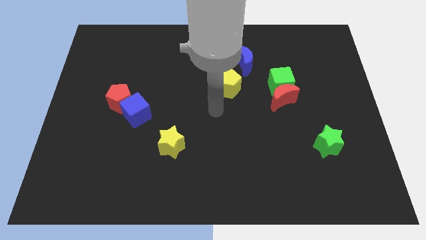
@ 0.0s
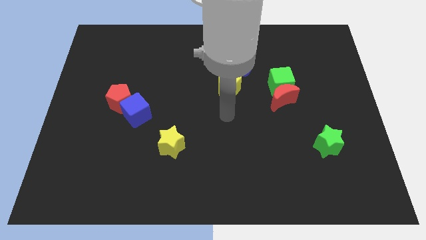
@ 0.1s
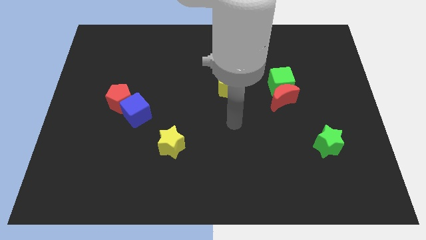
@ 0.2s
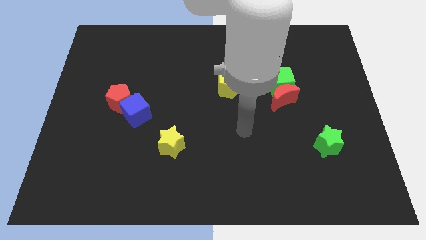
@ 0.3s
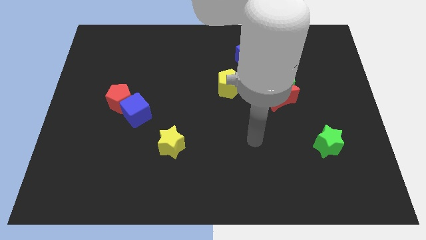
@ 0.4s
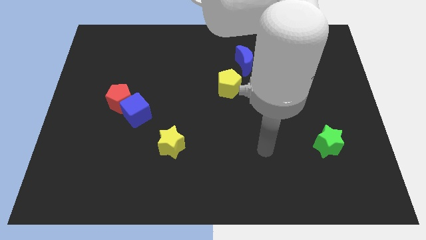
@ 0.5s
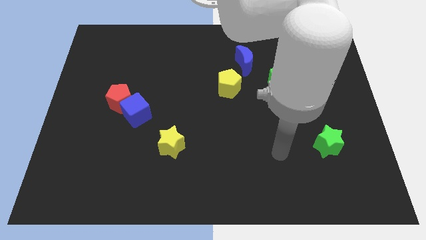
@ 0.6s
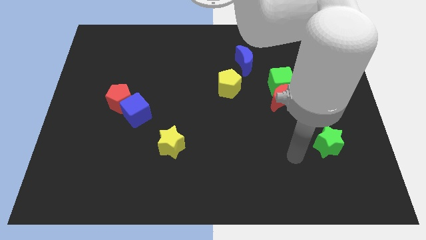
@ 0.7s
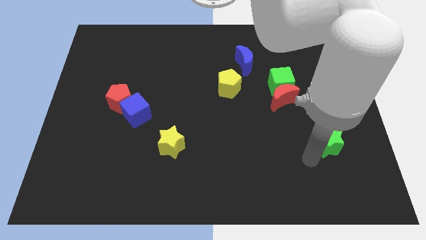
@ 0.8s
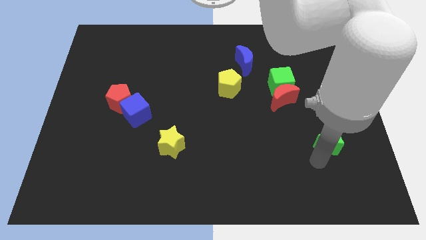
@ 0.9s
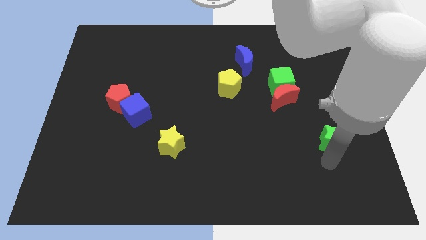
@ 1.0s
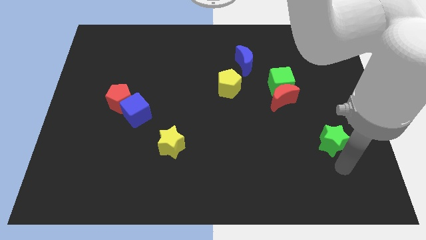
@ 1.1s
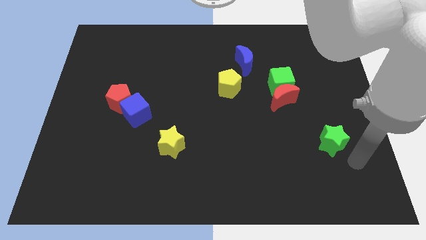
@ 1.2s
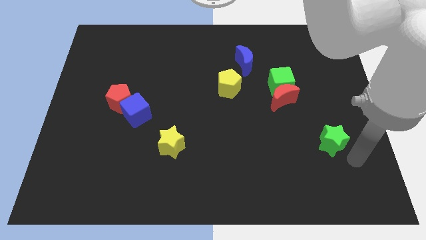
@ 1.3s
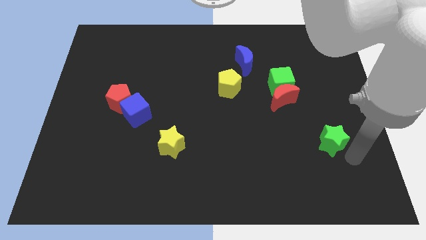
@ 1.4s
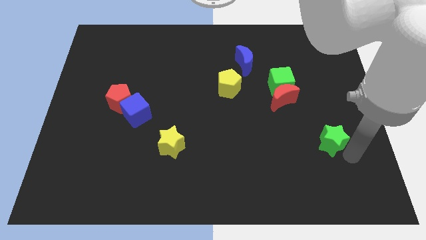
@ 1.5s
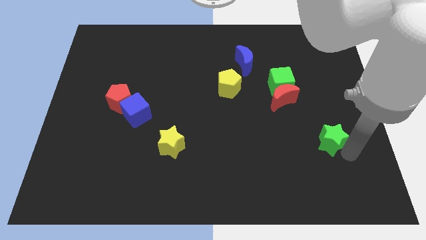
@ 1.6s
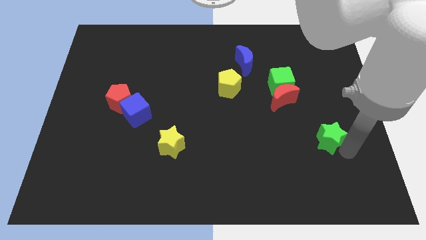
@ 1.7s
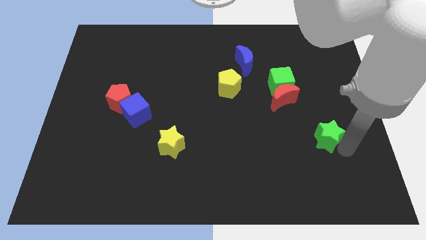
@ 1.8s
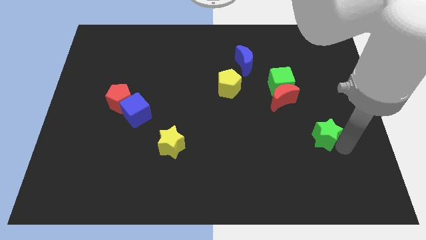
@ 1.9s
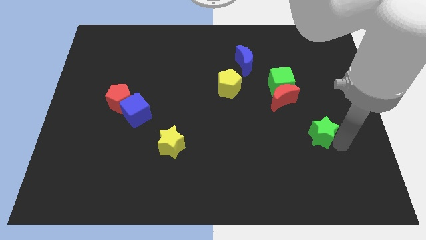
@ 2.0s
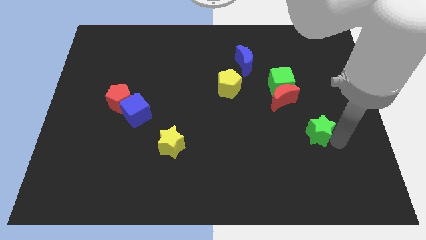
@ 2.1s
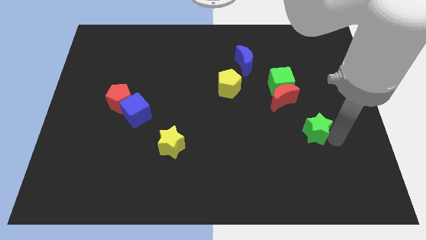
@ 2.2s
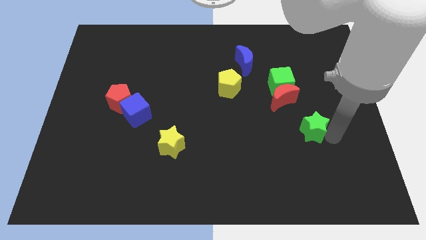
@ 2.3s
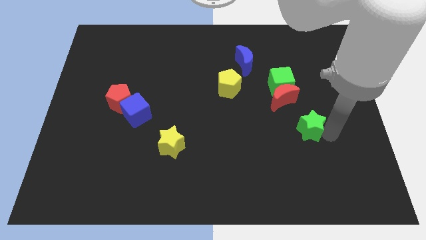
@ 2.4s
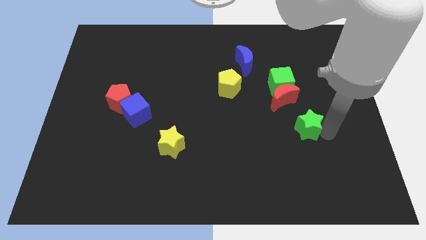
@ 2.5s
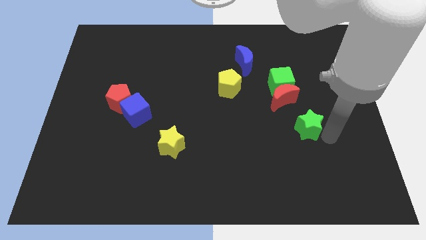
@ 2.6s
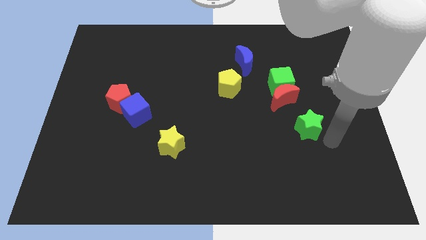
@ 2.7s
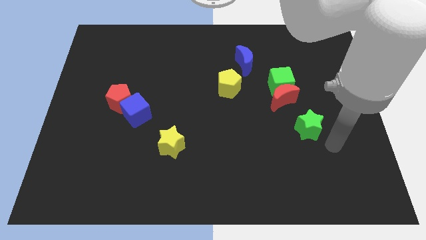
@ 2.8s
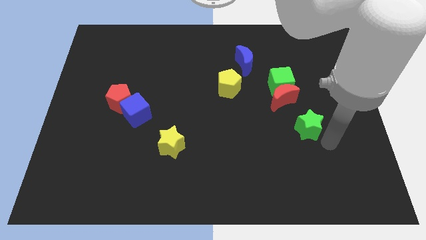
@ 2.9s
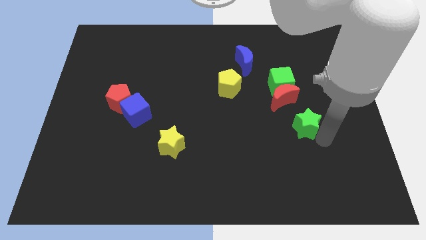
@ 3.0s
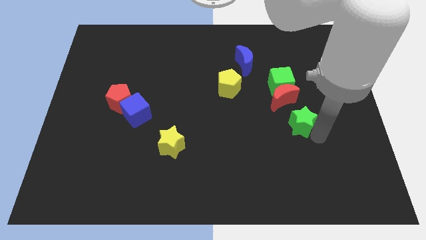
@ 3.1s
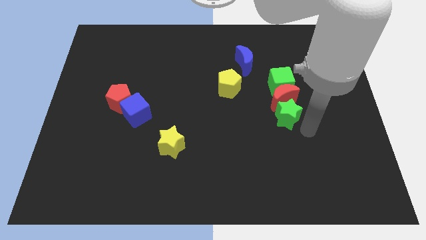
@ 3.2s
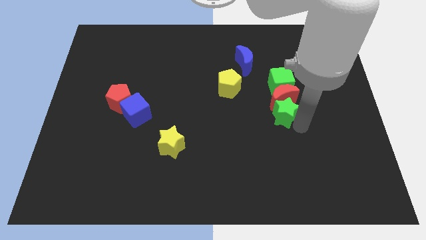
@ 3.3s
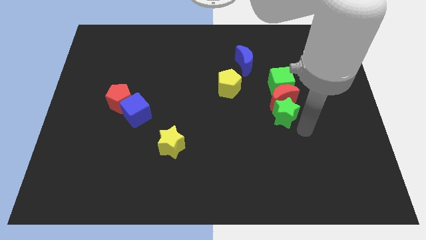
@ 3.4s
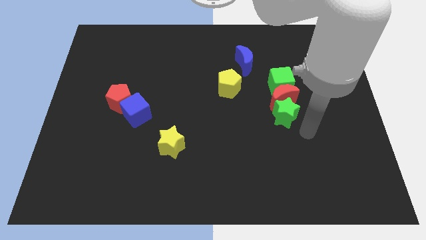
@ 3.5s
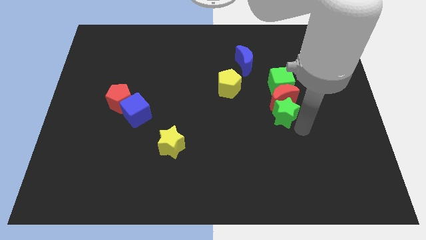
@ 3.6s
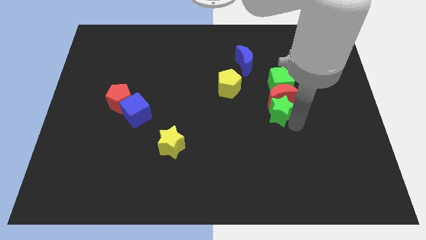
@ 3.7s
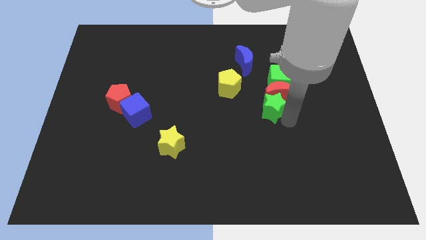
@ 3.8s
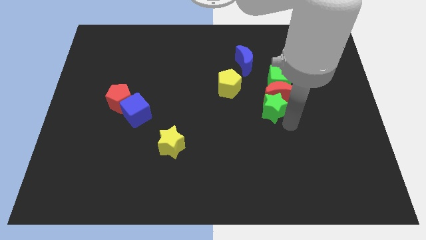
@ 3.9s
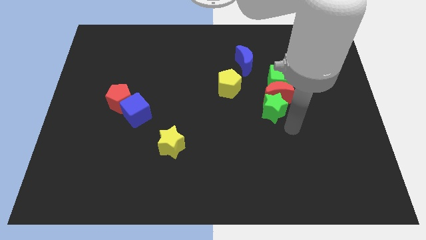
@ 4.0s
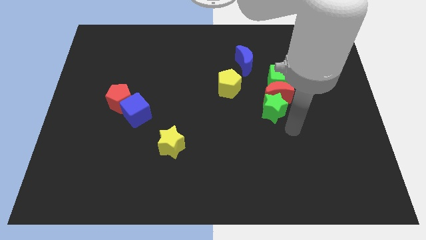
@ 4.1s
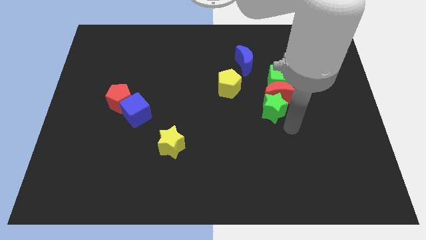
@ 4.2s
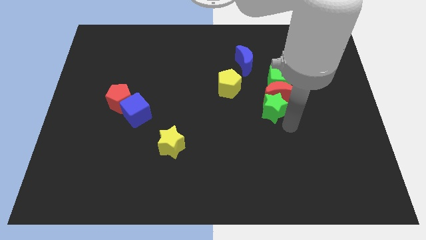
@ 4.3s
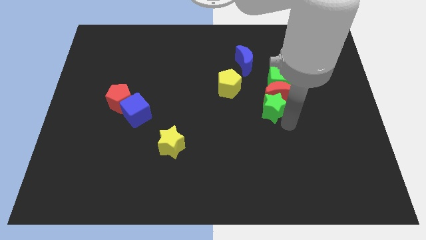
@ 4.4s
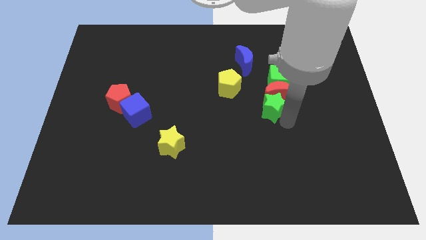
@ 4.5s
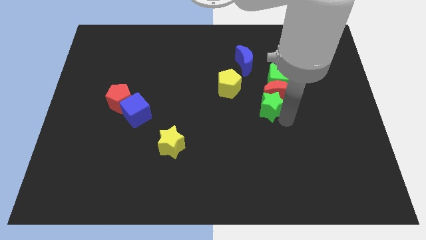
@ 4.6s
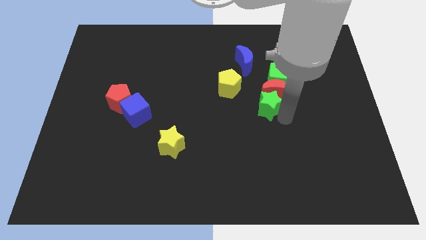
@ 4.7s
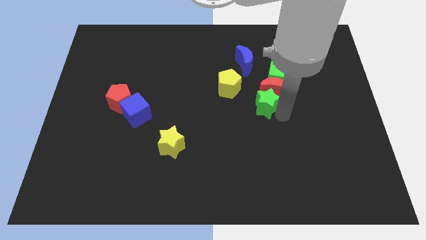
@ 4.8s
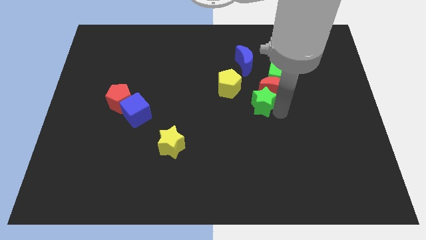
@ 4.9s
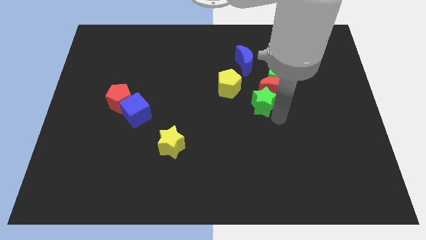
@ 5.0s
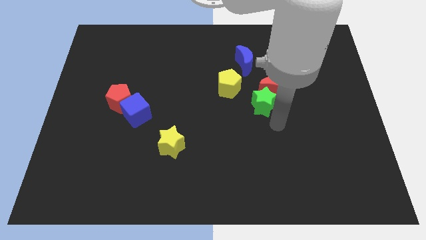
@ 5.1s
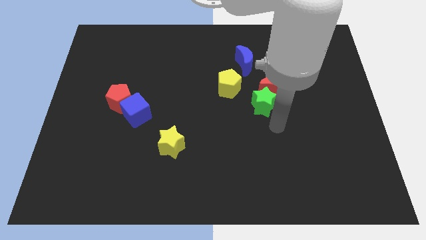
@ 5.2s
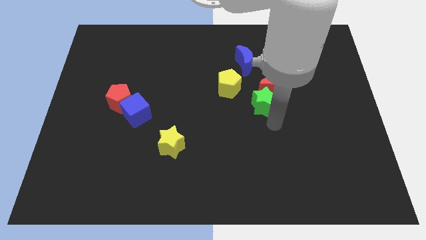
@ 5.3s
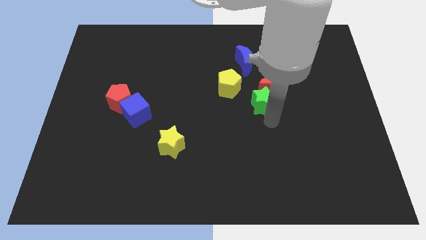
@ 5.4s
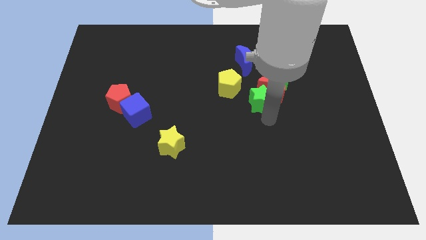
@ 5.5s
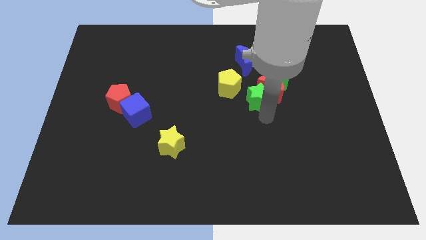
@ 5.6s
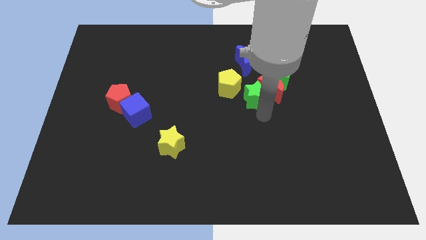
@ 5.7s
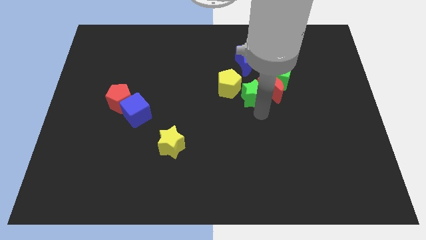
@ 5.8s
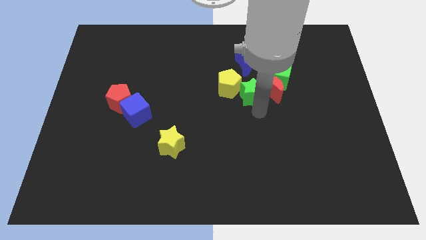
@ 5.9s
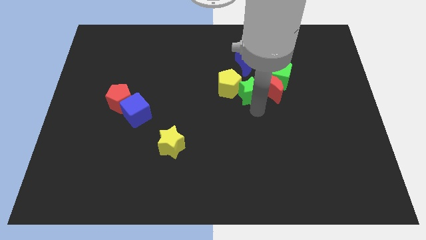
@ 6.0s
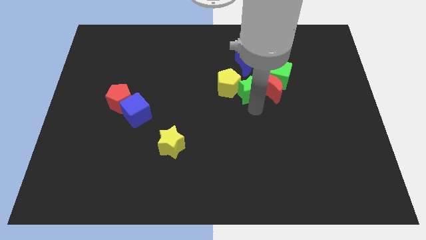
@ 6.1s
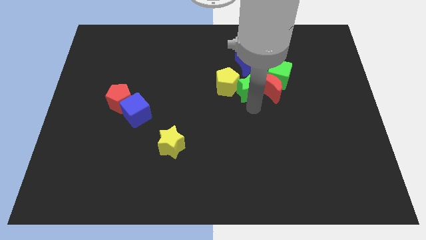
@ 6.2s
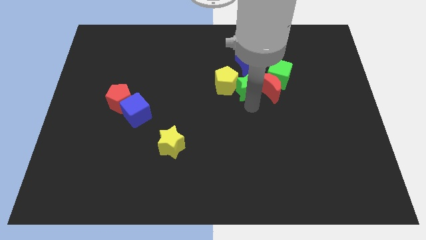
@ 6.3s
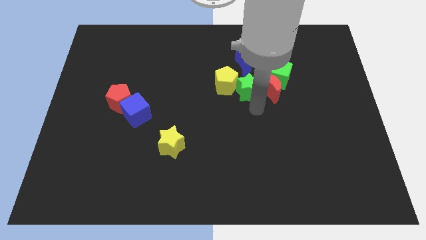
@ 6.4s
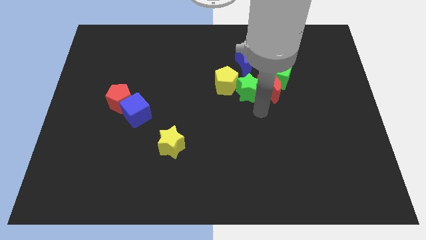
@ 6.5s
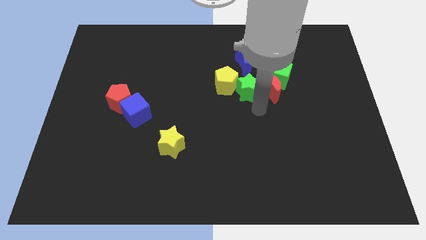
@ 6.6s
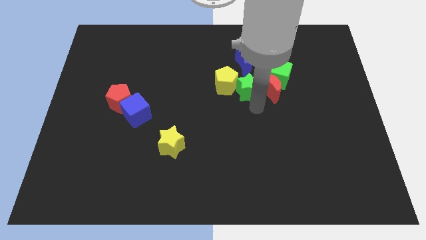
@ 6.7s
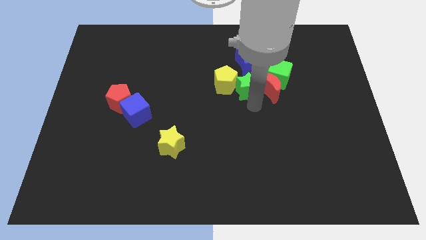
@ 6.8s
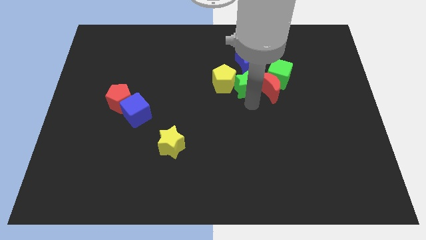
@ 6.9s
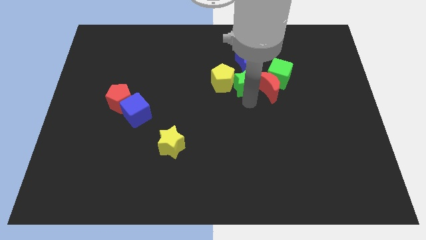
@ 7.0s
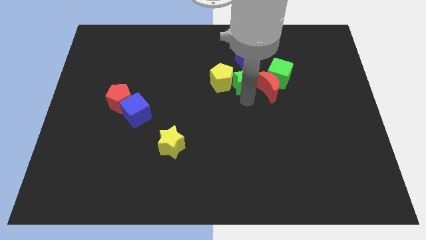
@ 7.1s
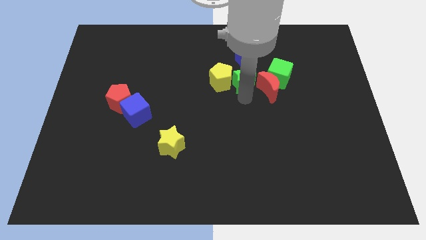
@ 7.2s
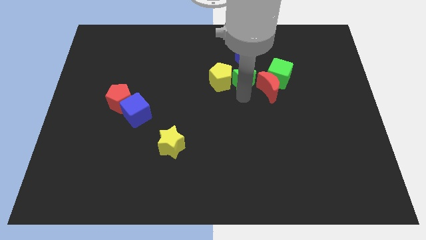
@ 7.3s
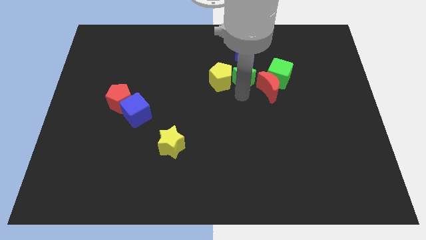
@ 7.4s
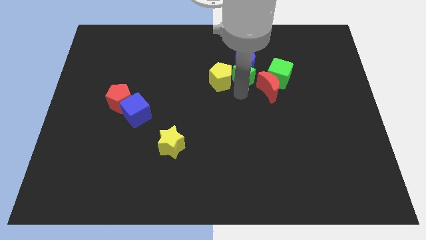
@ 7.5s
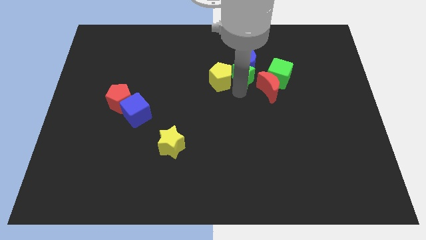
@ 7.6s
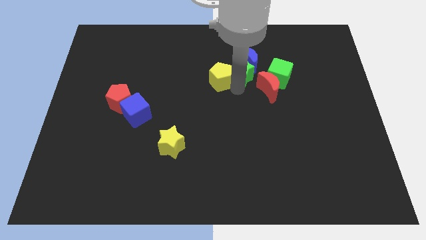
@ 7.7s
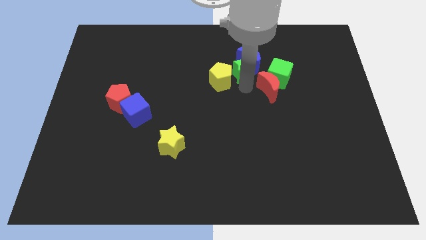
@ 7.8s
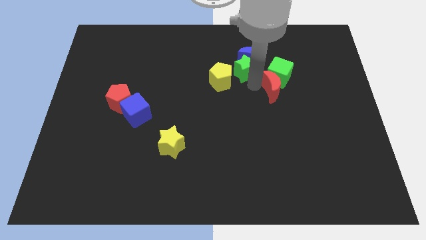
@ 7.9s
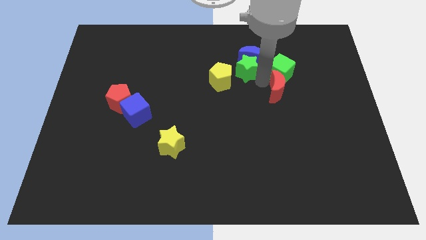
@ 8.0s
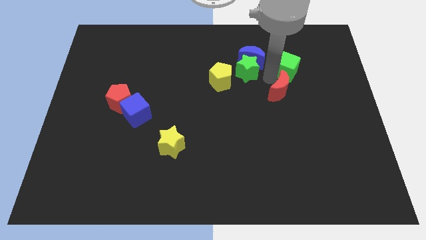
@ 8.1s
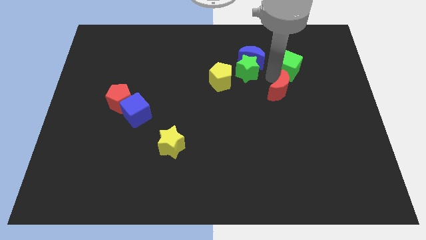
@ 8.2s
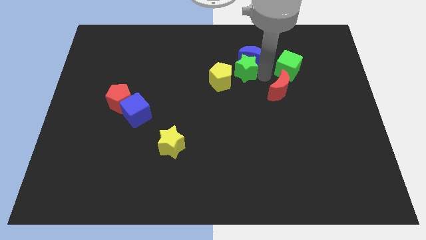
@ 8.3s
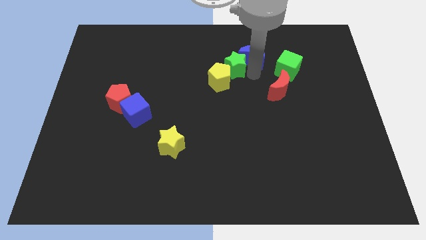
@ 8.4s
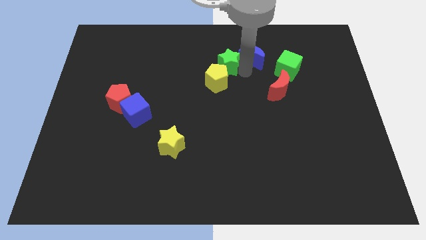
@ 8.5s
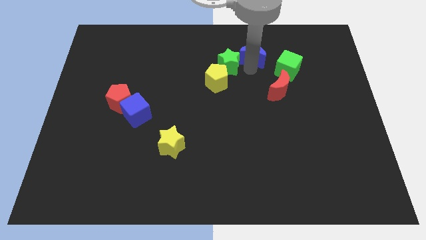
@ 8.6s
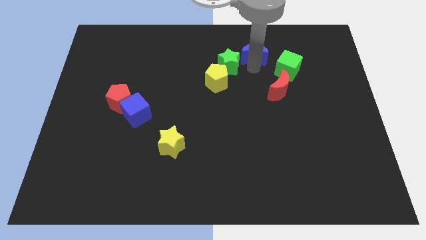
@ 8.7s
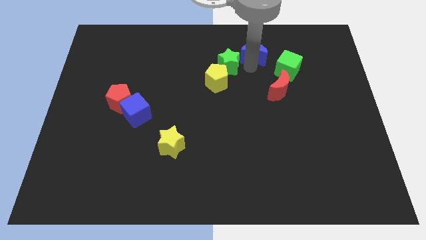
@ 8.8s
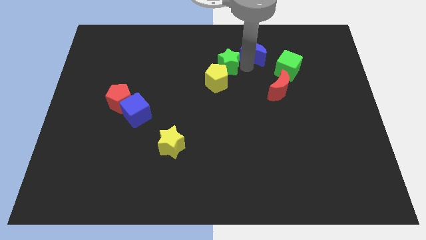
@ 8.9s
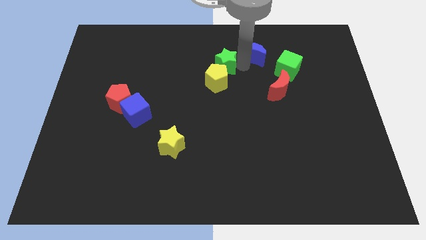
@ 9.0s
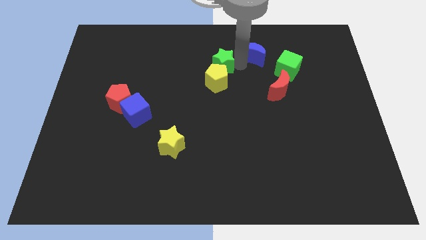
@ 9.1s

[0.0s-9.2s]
push the green star to the top left of the yellow pentagon
